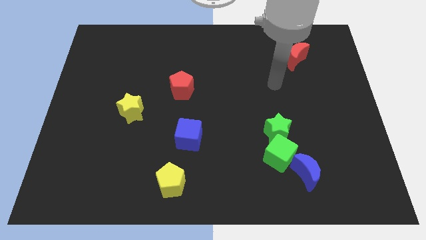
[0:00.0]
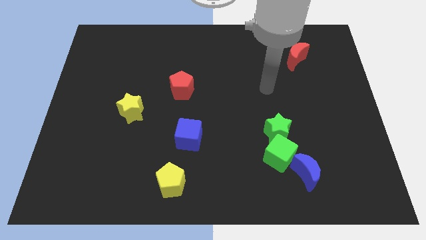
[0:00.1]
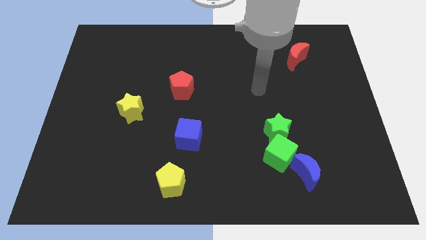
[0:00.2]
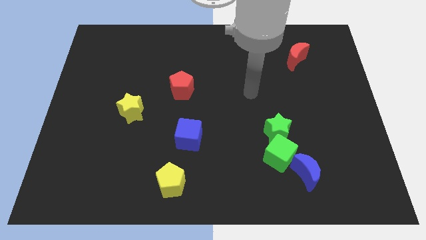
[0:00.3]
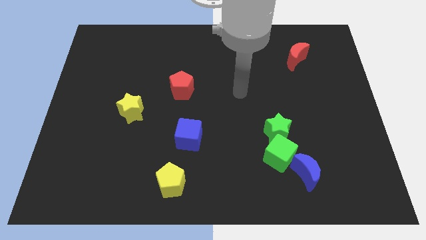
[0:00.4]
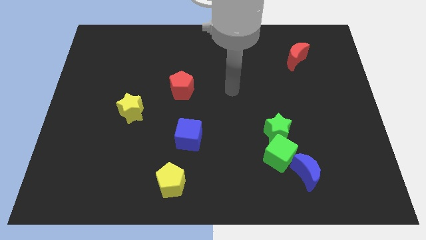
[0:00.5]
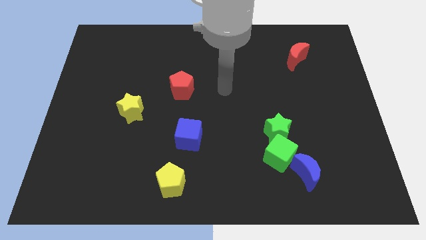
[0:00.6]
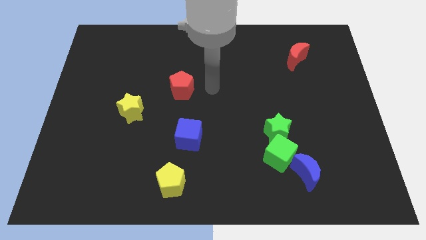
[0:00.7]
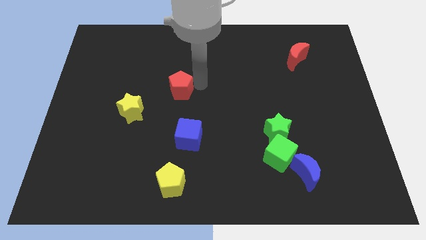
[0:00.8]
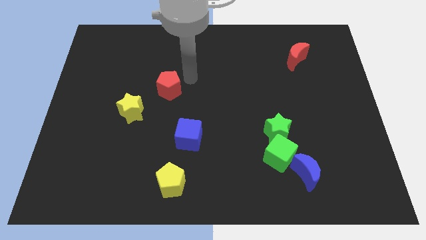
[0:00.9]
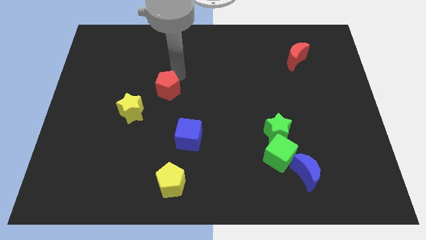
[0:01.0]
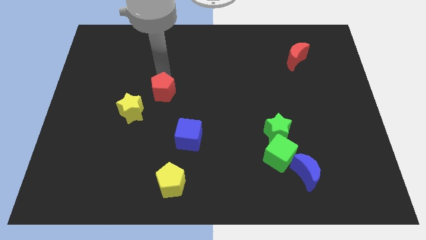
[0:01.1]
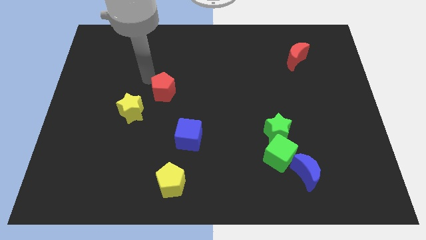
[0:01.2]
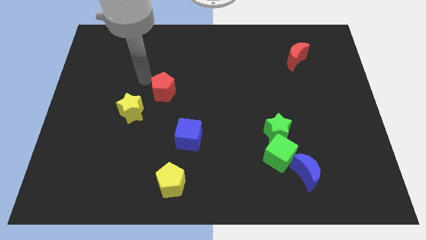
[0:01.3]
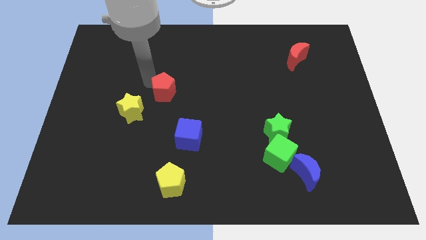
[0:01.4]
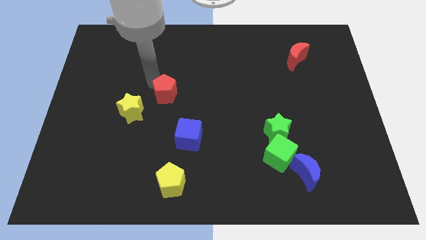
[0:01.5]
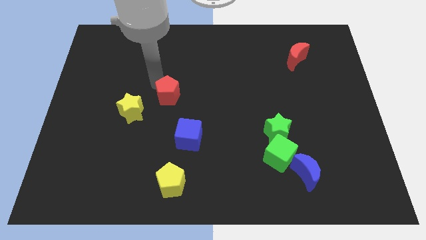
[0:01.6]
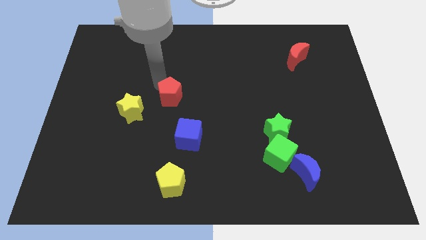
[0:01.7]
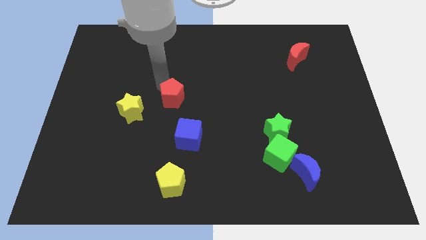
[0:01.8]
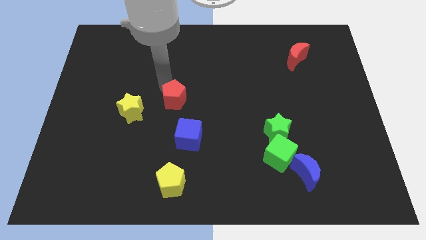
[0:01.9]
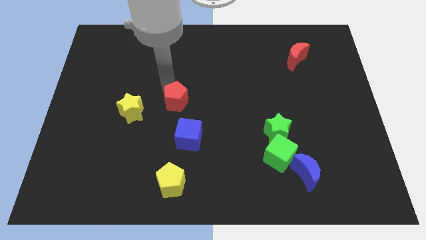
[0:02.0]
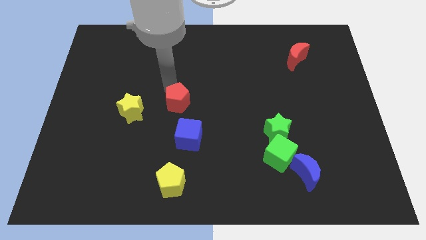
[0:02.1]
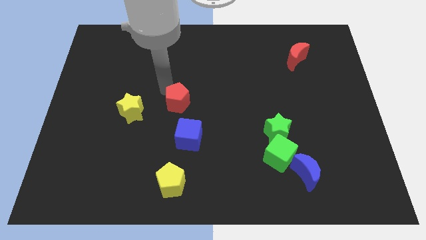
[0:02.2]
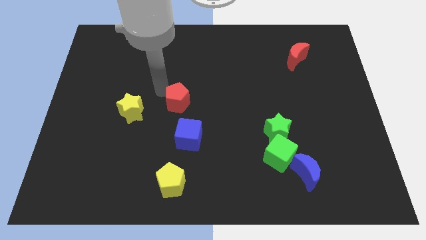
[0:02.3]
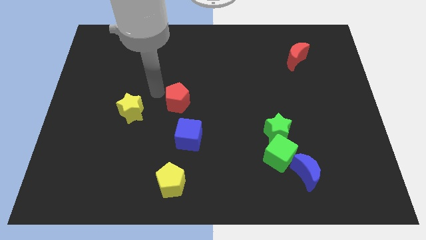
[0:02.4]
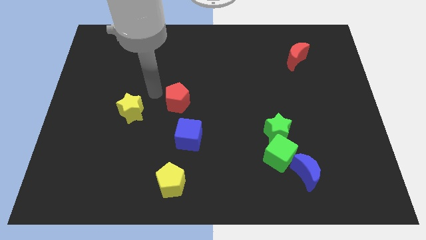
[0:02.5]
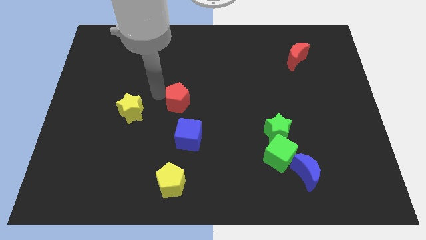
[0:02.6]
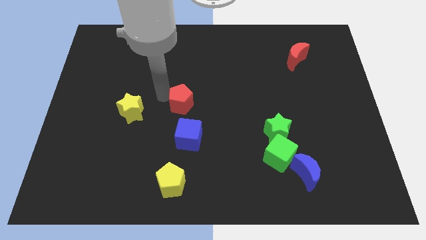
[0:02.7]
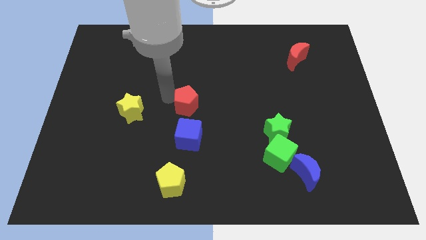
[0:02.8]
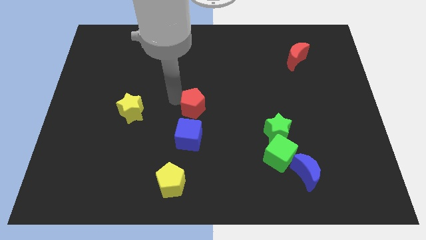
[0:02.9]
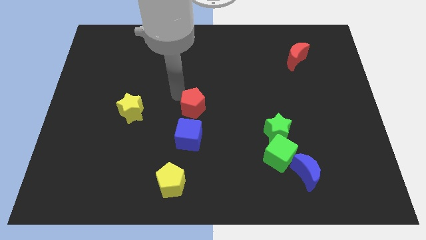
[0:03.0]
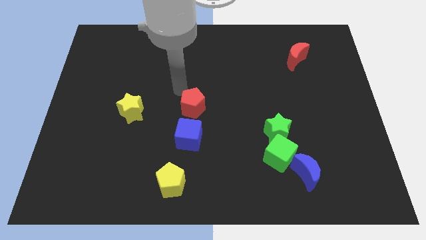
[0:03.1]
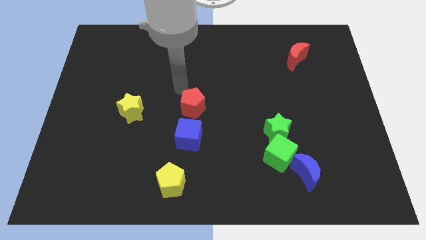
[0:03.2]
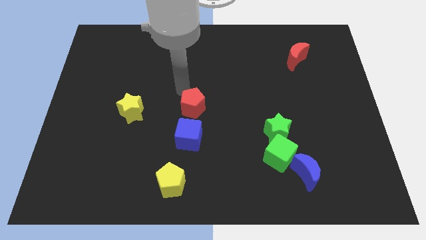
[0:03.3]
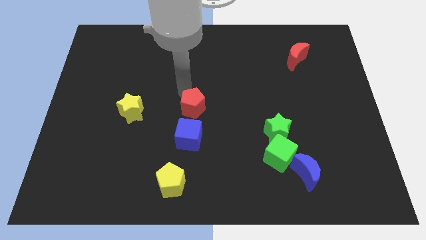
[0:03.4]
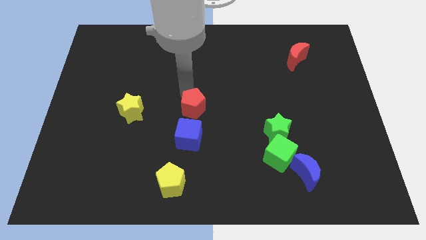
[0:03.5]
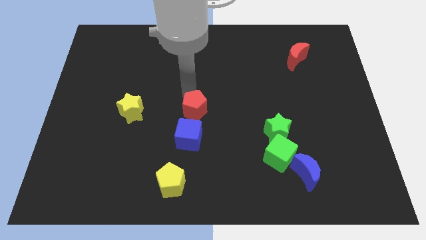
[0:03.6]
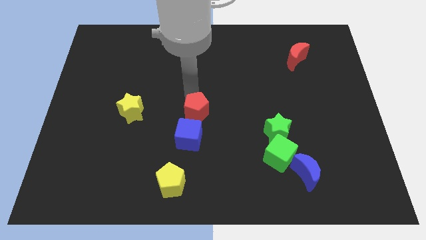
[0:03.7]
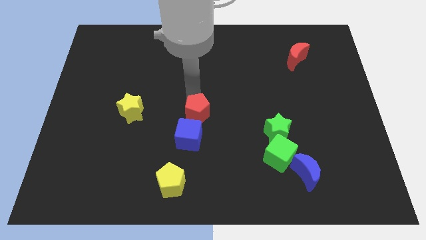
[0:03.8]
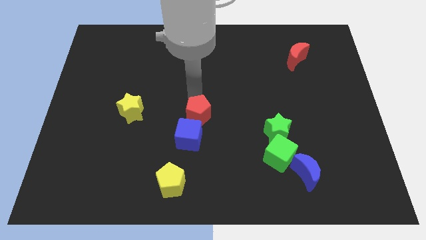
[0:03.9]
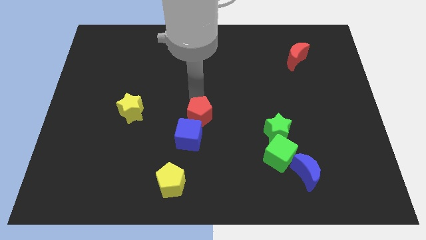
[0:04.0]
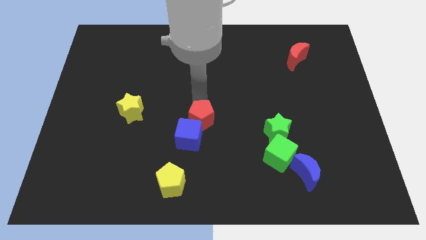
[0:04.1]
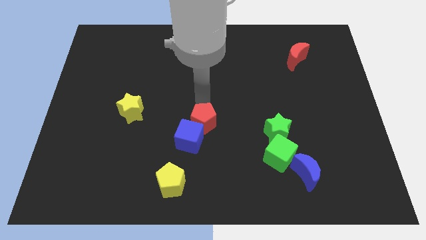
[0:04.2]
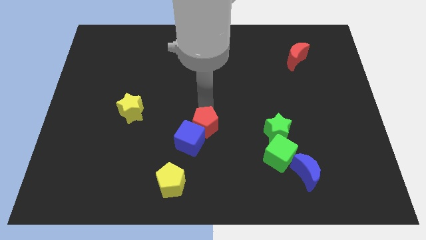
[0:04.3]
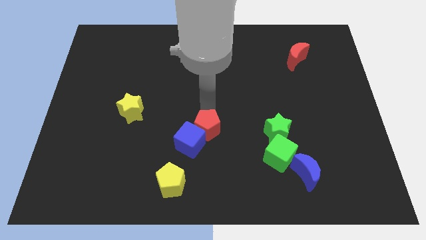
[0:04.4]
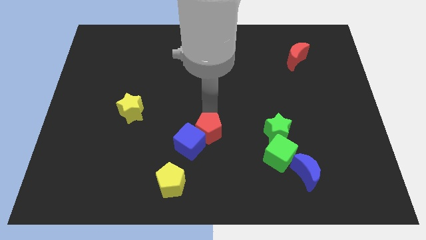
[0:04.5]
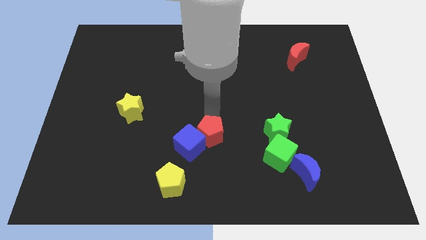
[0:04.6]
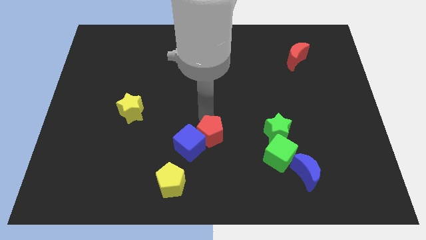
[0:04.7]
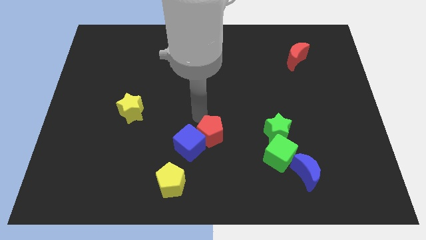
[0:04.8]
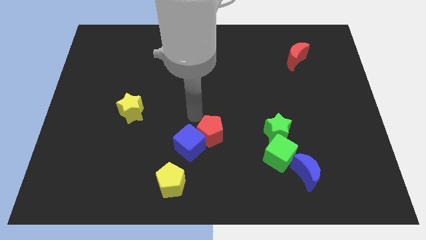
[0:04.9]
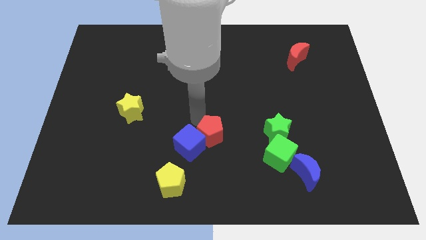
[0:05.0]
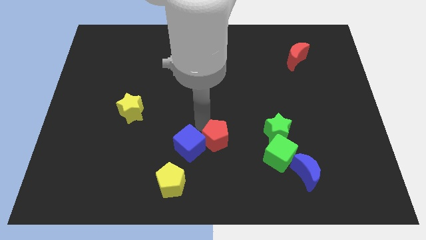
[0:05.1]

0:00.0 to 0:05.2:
slide the red pentagon to the left side of the green cube

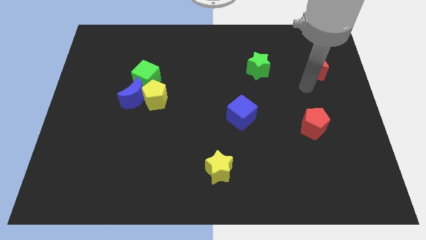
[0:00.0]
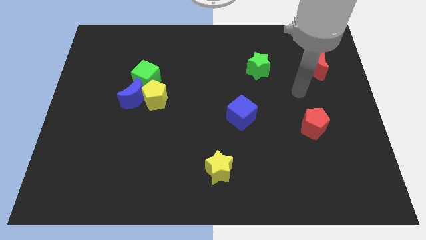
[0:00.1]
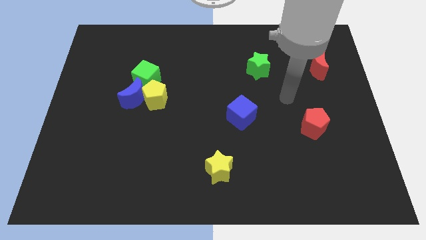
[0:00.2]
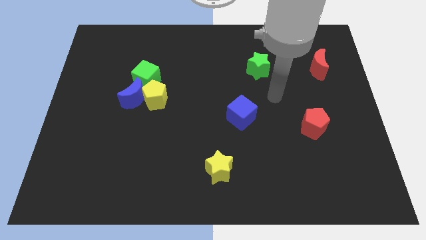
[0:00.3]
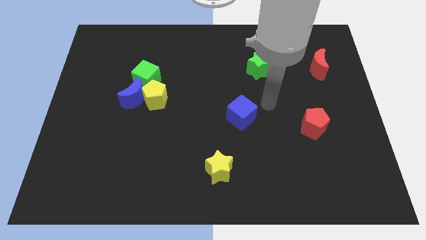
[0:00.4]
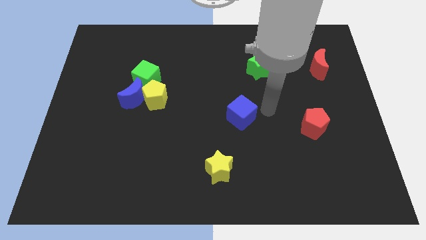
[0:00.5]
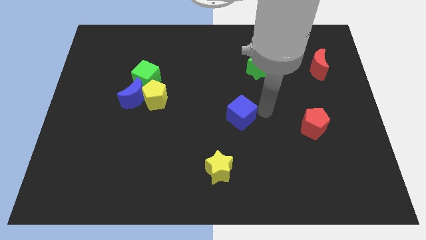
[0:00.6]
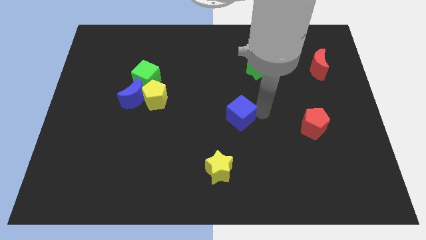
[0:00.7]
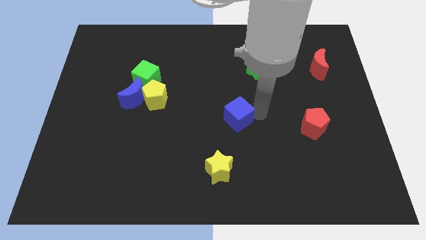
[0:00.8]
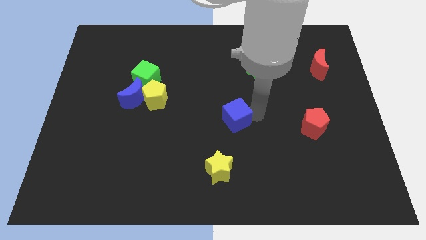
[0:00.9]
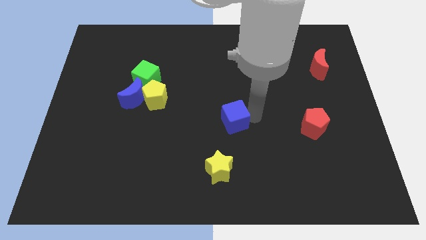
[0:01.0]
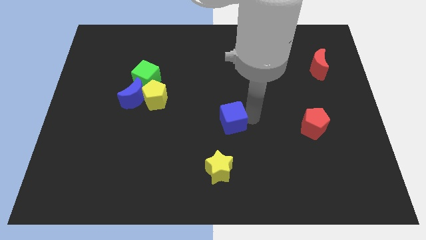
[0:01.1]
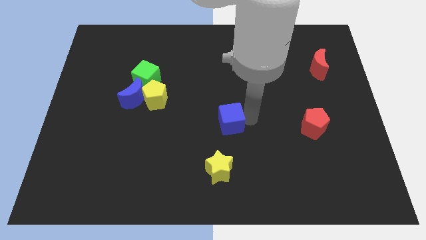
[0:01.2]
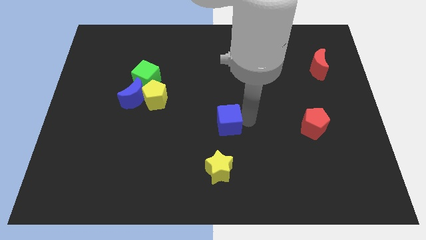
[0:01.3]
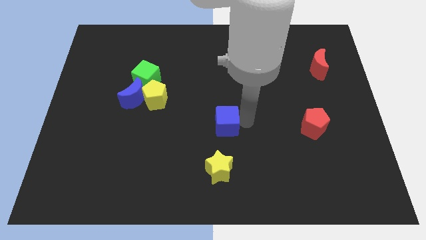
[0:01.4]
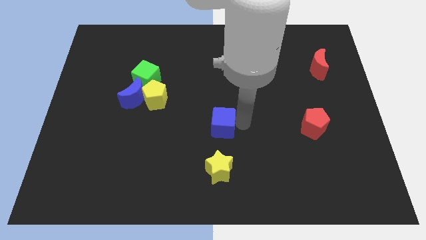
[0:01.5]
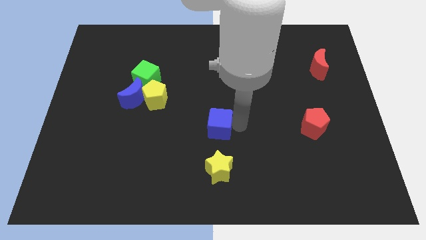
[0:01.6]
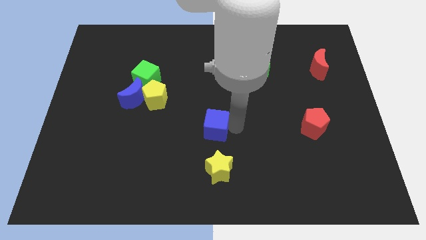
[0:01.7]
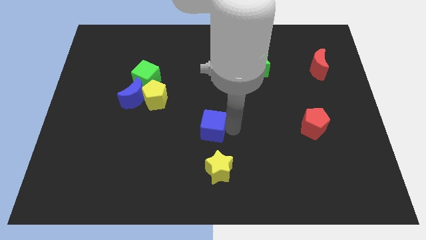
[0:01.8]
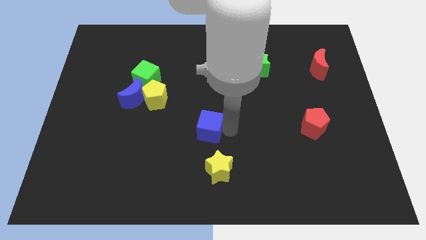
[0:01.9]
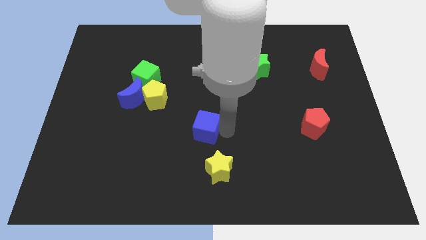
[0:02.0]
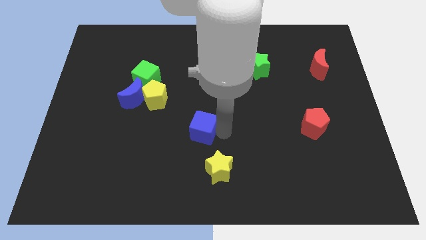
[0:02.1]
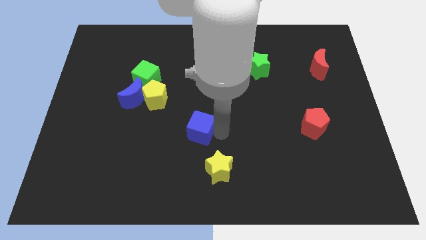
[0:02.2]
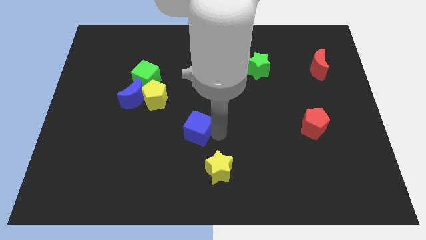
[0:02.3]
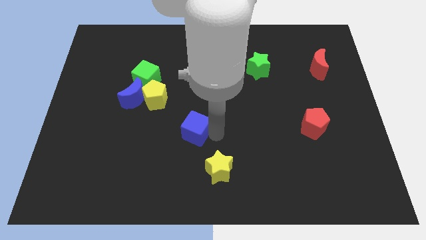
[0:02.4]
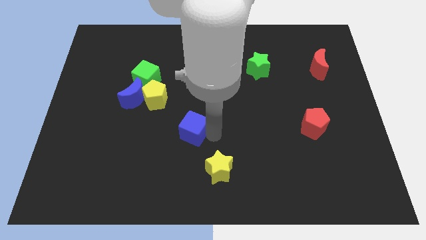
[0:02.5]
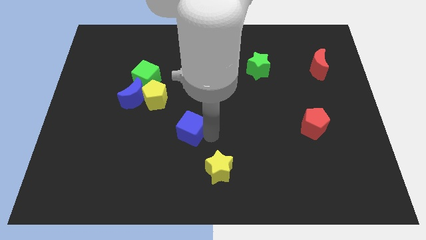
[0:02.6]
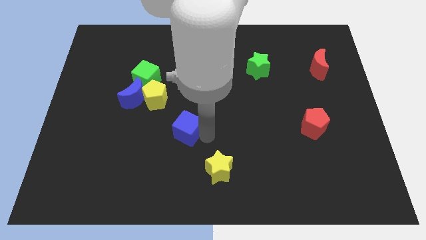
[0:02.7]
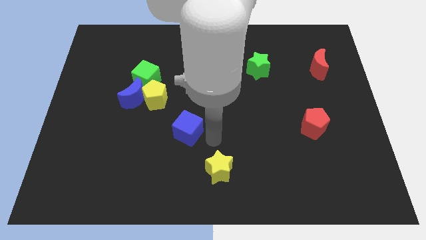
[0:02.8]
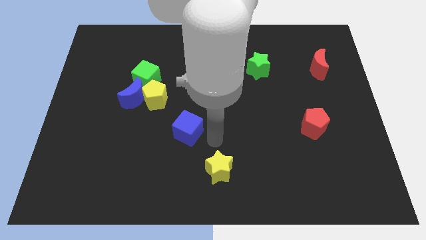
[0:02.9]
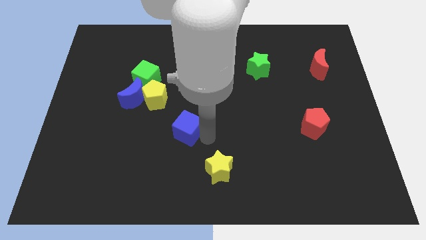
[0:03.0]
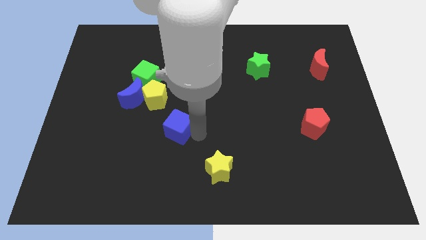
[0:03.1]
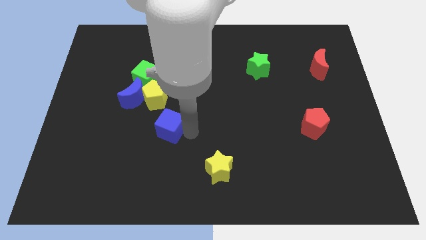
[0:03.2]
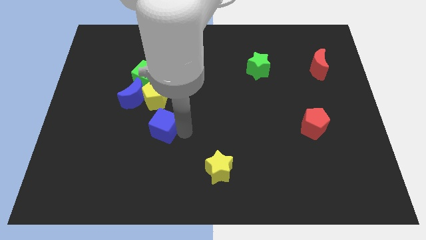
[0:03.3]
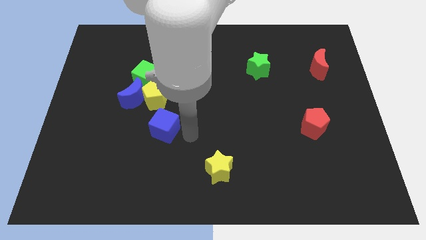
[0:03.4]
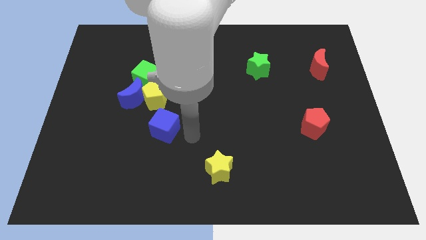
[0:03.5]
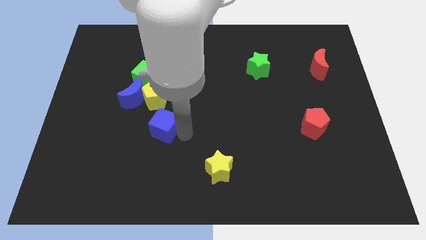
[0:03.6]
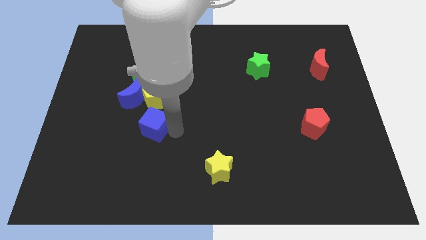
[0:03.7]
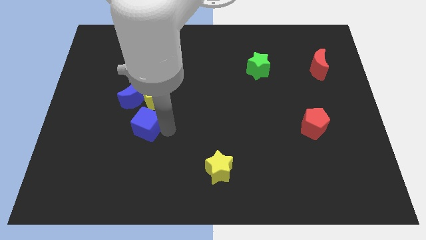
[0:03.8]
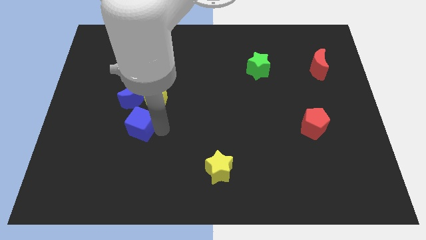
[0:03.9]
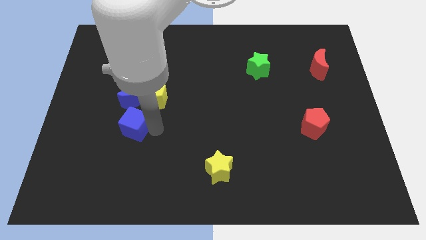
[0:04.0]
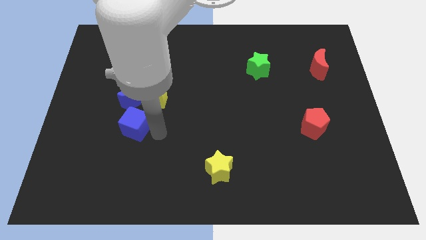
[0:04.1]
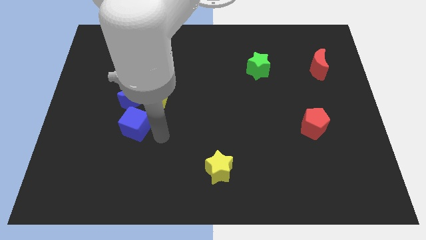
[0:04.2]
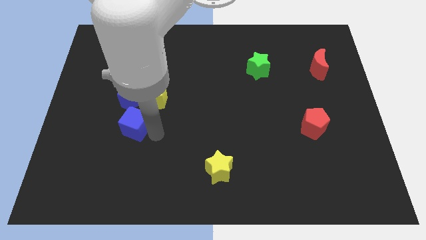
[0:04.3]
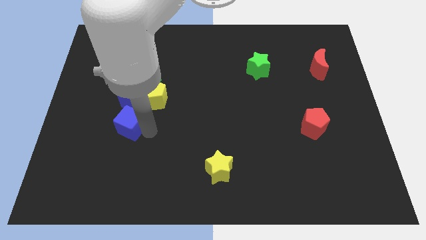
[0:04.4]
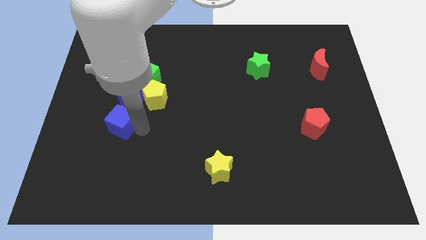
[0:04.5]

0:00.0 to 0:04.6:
push the blue cube to the bottom left side of the blue moon
